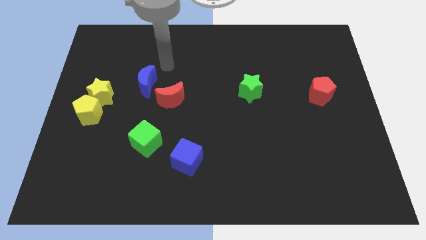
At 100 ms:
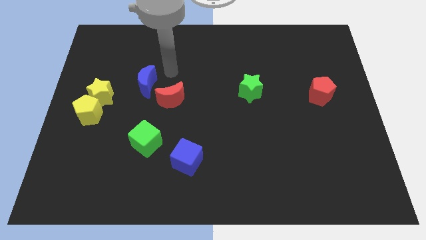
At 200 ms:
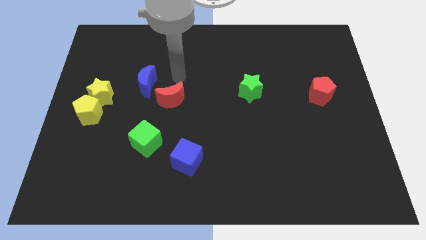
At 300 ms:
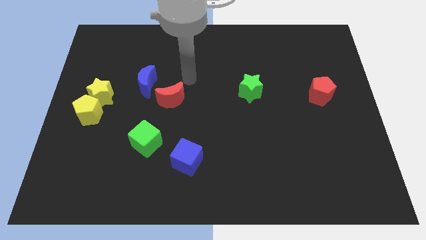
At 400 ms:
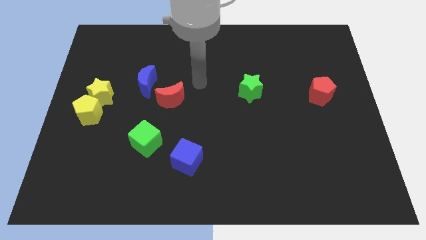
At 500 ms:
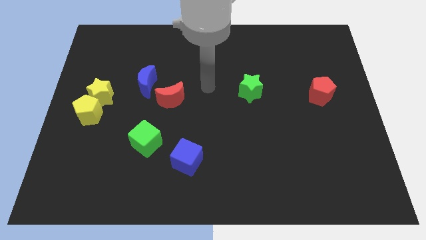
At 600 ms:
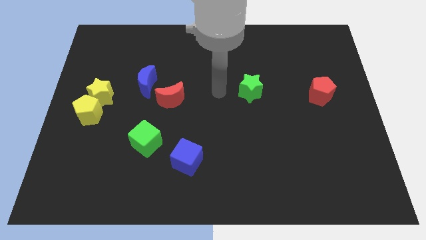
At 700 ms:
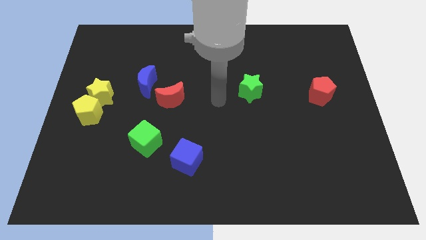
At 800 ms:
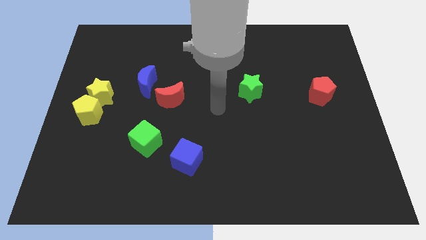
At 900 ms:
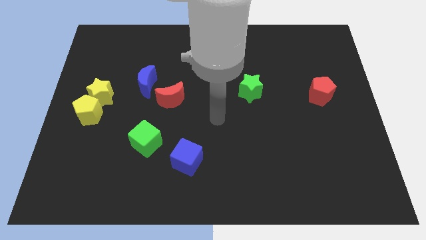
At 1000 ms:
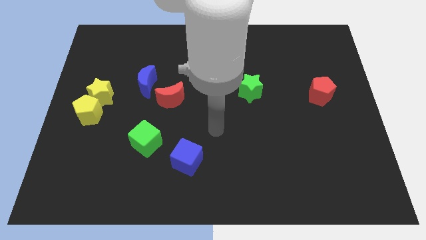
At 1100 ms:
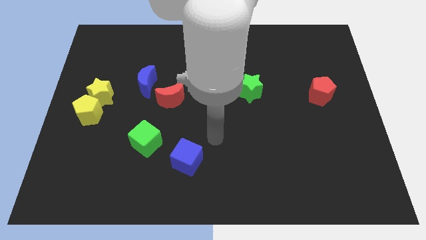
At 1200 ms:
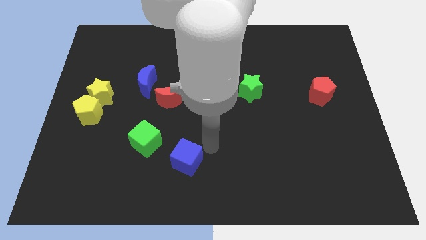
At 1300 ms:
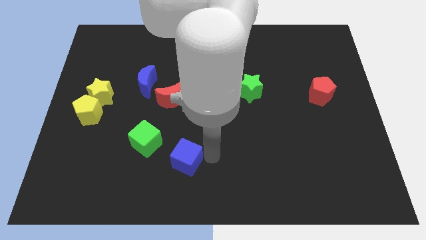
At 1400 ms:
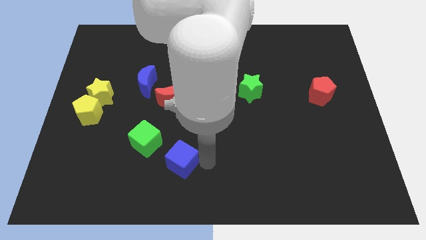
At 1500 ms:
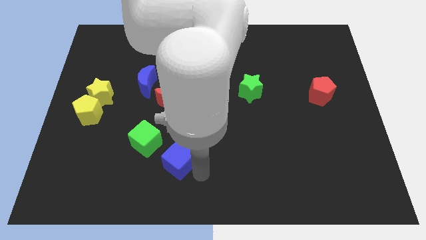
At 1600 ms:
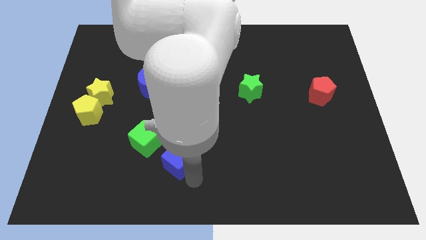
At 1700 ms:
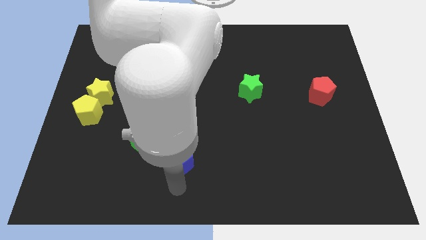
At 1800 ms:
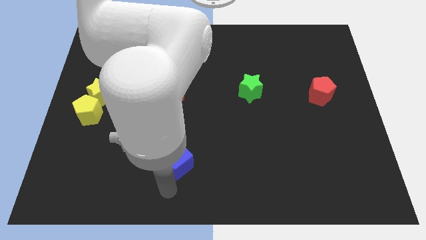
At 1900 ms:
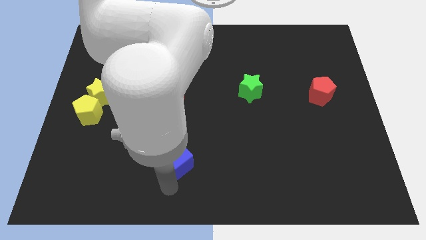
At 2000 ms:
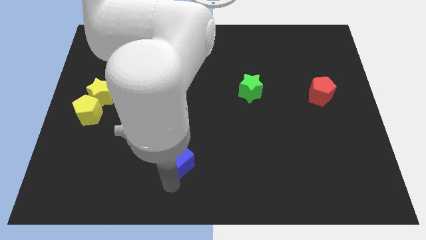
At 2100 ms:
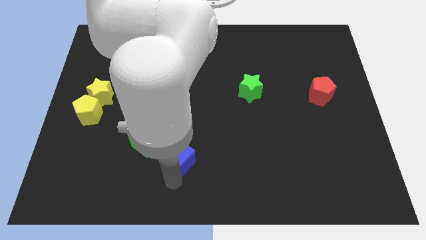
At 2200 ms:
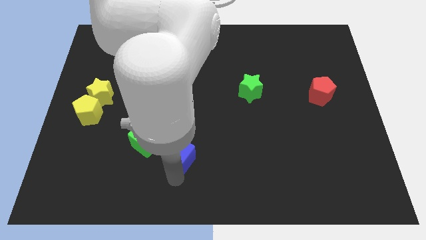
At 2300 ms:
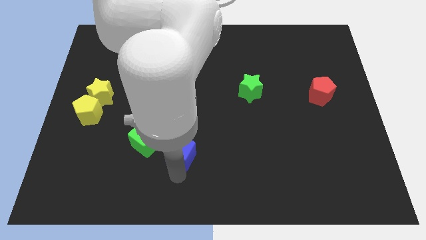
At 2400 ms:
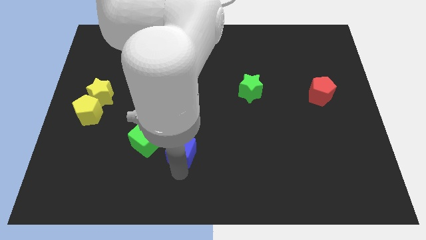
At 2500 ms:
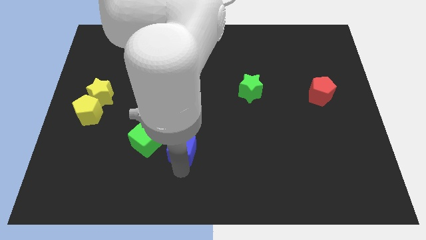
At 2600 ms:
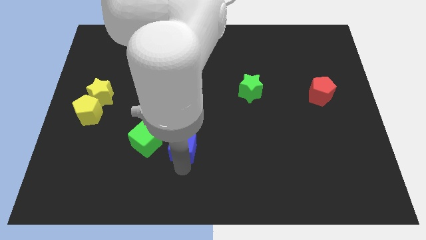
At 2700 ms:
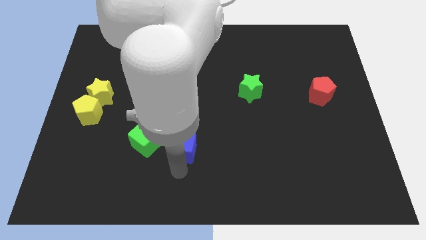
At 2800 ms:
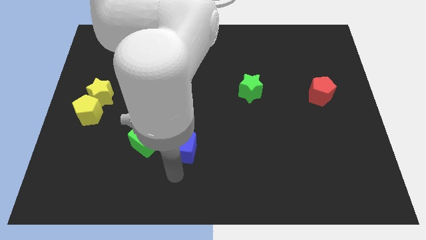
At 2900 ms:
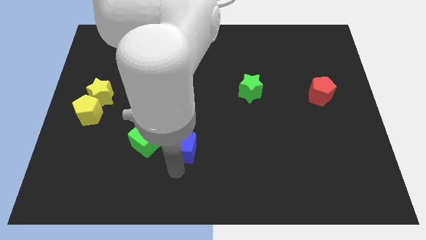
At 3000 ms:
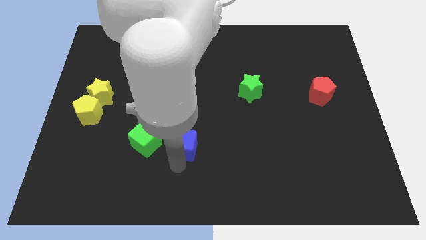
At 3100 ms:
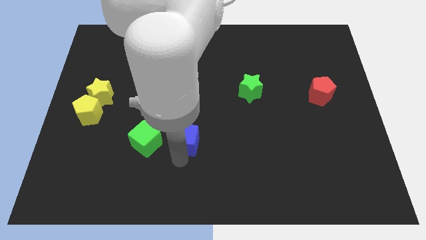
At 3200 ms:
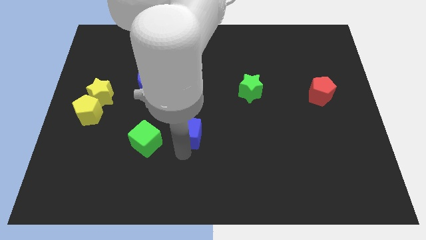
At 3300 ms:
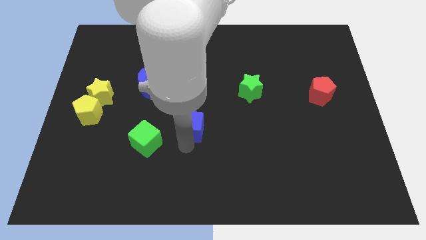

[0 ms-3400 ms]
slightly move the blue cube upwards

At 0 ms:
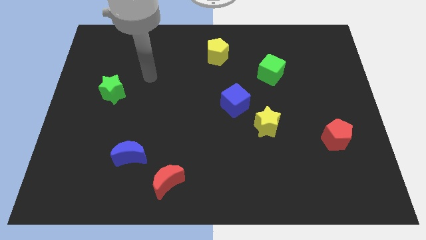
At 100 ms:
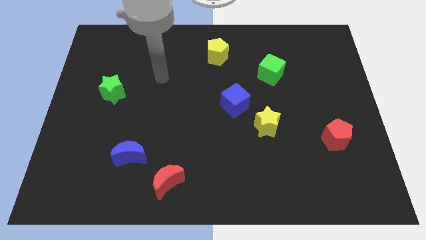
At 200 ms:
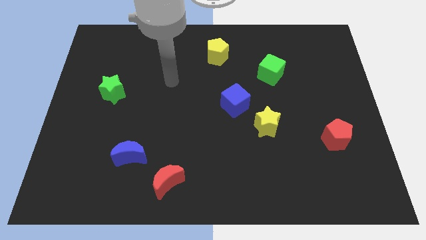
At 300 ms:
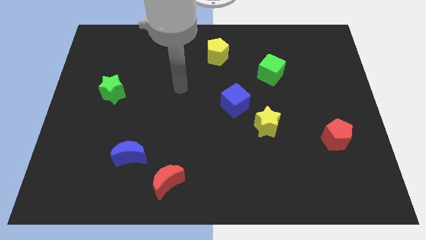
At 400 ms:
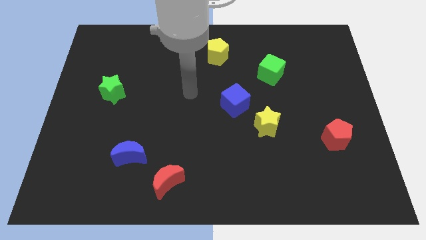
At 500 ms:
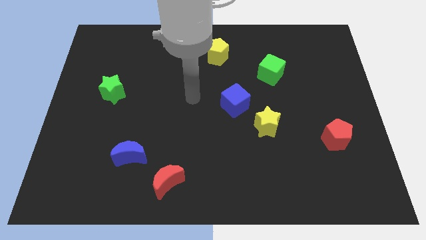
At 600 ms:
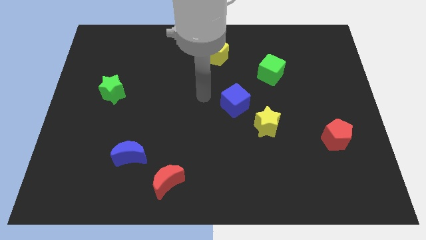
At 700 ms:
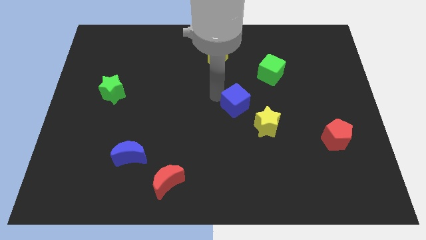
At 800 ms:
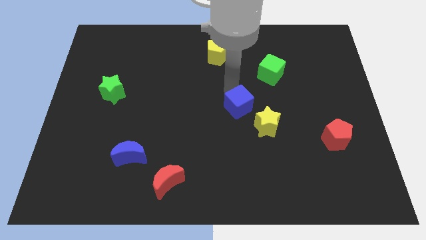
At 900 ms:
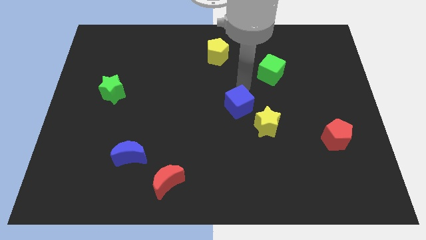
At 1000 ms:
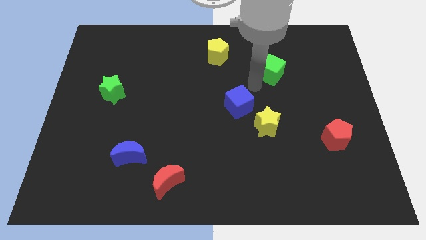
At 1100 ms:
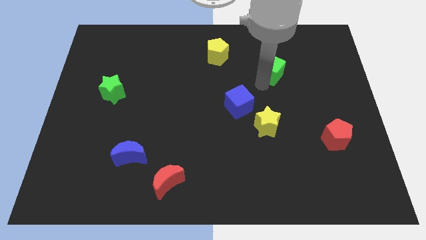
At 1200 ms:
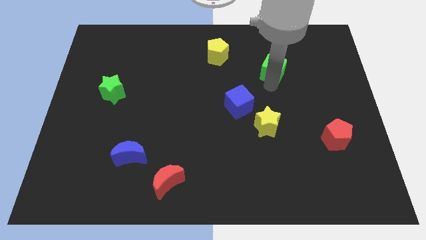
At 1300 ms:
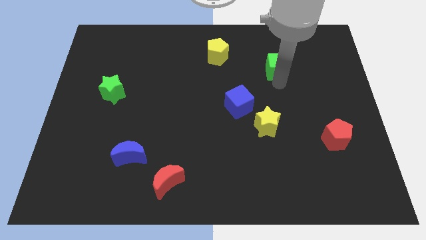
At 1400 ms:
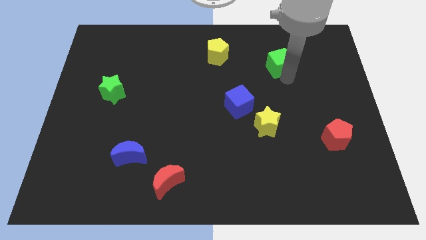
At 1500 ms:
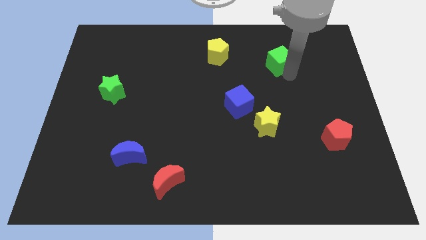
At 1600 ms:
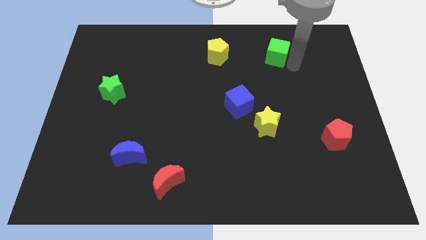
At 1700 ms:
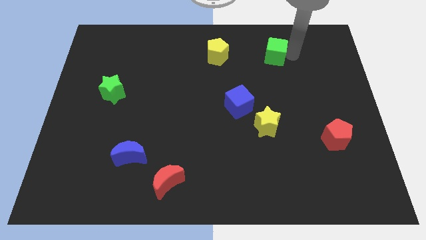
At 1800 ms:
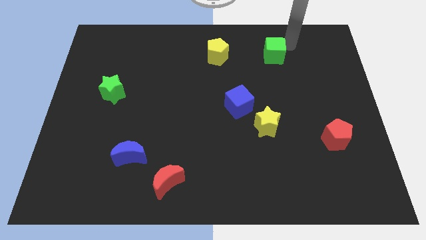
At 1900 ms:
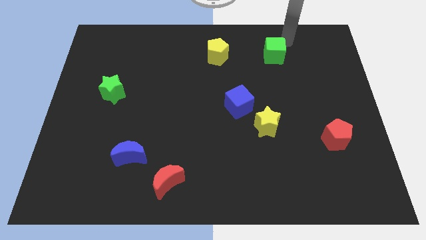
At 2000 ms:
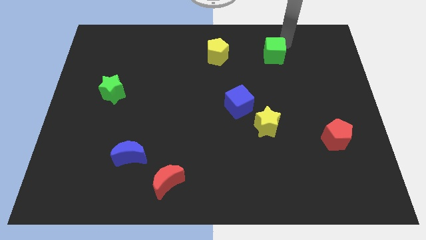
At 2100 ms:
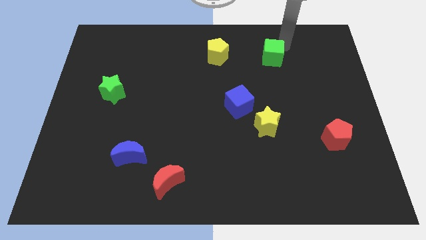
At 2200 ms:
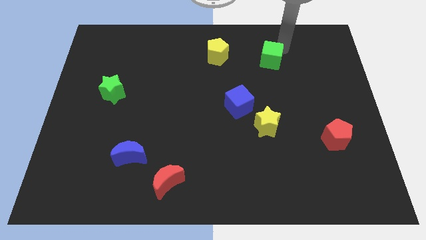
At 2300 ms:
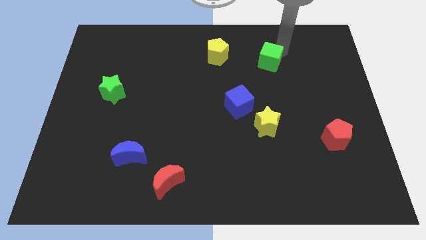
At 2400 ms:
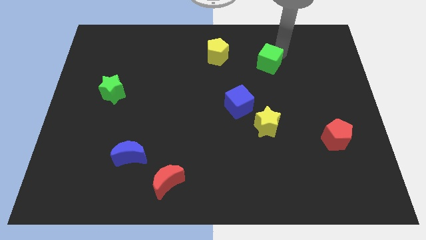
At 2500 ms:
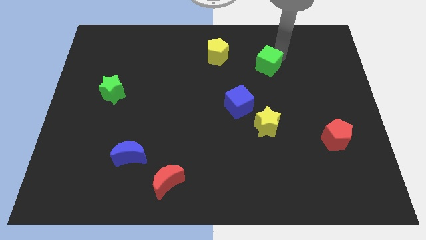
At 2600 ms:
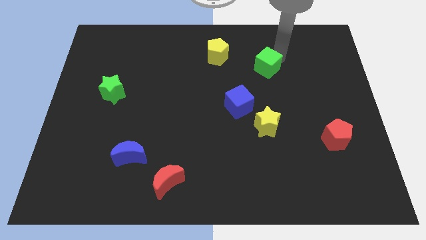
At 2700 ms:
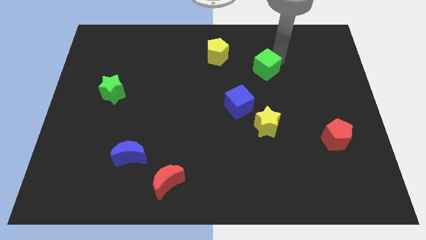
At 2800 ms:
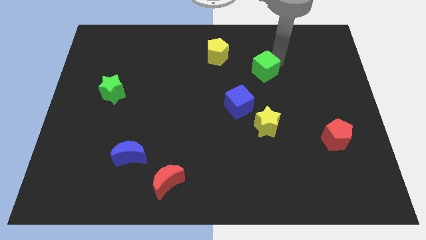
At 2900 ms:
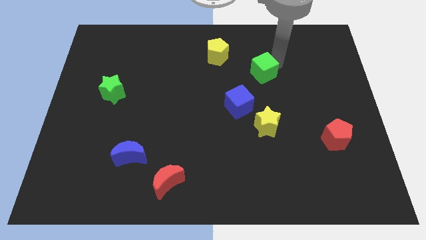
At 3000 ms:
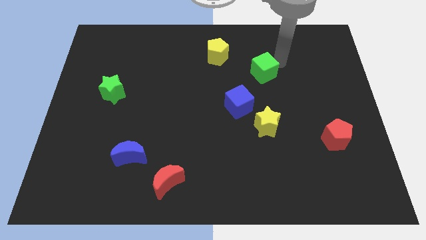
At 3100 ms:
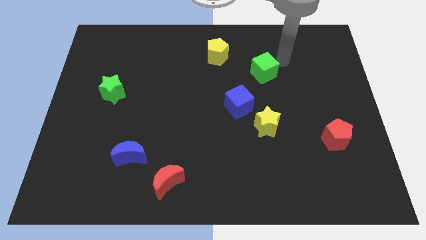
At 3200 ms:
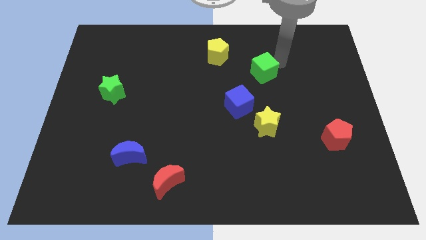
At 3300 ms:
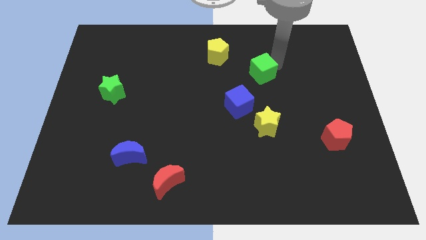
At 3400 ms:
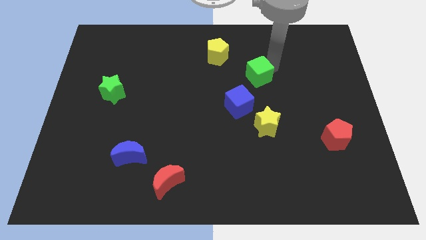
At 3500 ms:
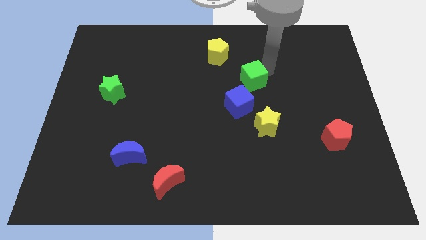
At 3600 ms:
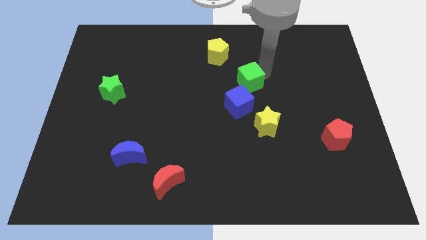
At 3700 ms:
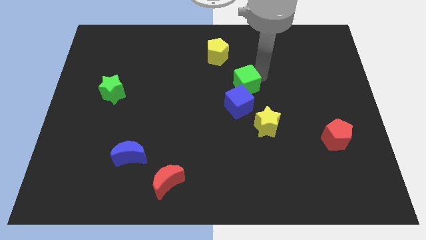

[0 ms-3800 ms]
slide the green cube a little diagonally downwards and to the left

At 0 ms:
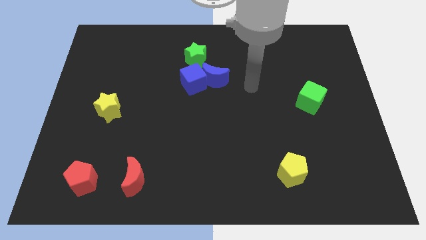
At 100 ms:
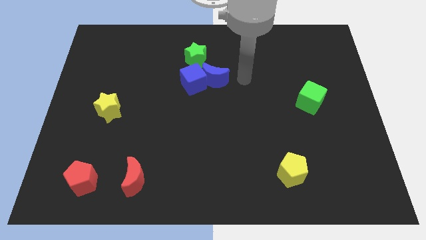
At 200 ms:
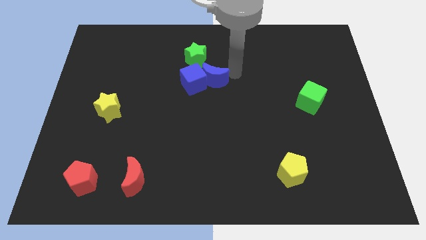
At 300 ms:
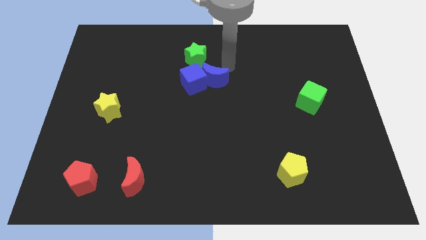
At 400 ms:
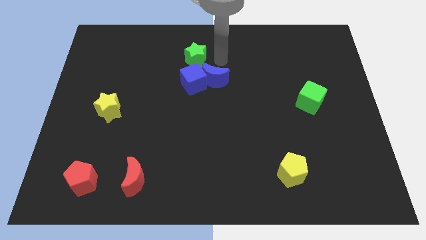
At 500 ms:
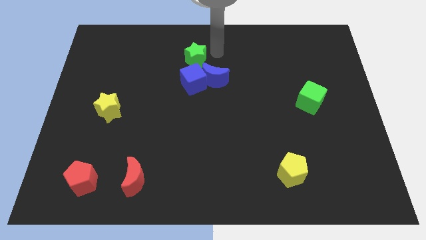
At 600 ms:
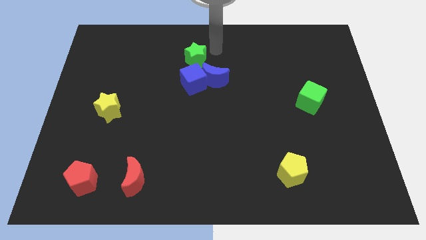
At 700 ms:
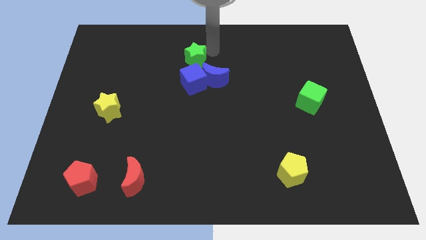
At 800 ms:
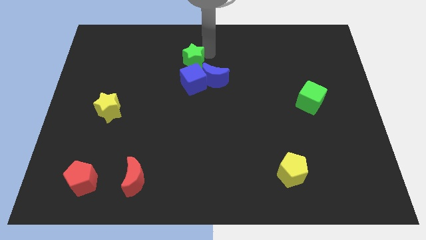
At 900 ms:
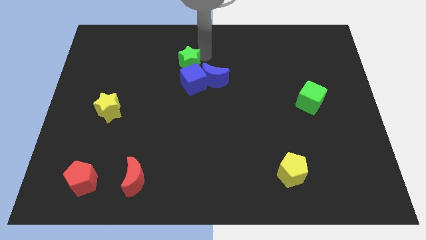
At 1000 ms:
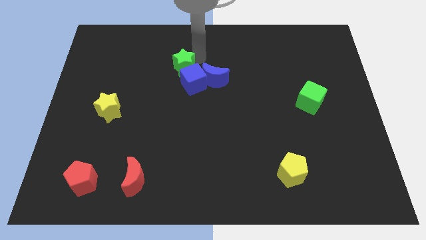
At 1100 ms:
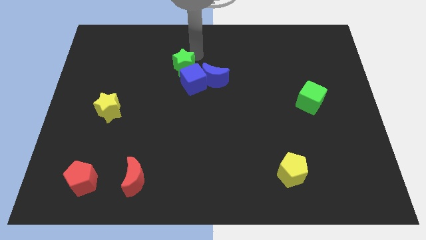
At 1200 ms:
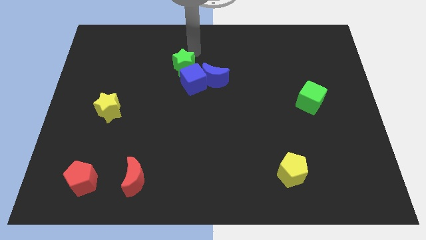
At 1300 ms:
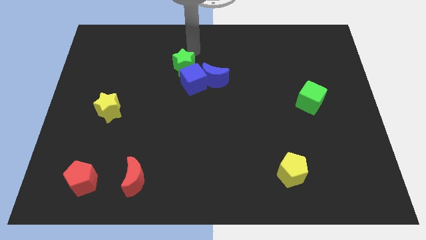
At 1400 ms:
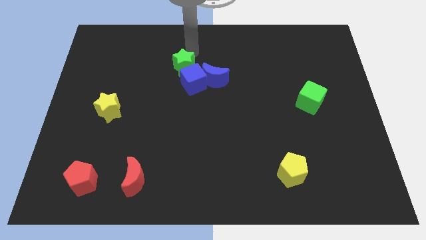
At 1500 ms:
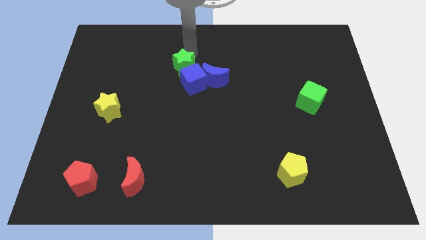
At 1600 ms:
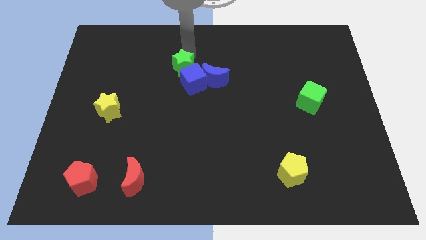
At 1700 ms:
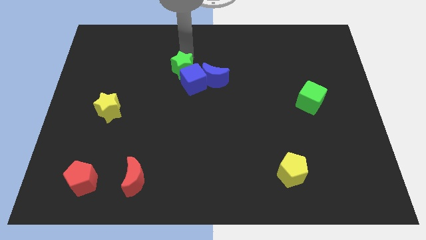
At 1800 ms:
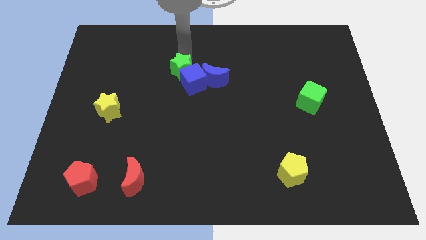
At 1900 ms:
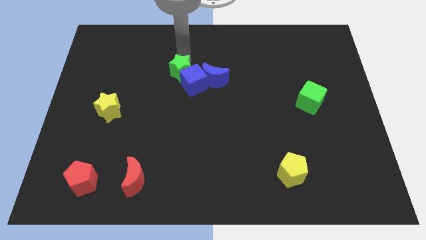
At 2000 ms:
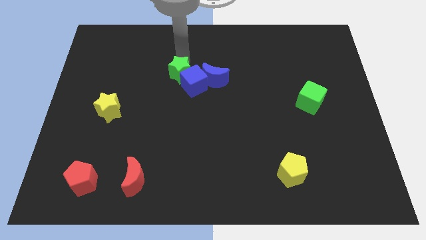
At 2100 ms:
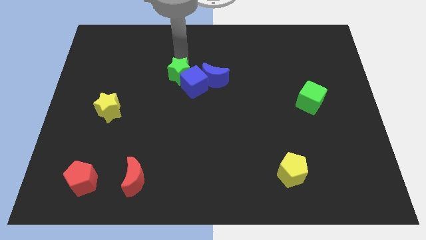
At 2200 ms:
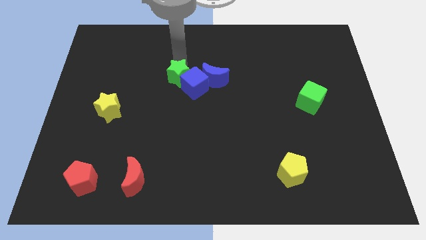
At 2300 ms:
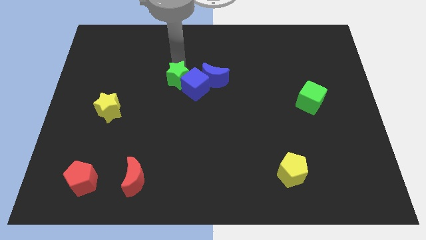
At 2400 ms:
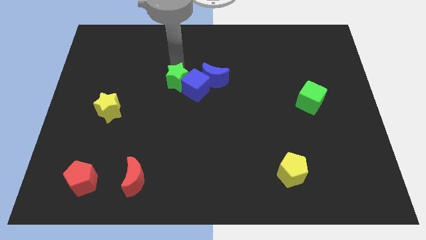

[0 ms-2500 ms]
push the green star down a little bit
